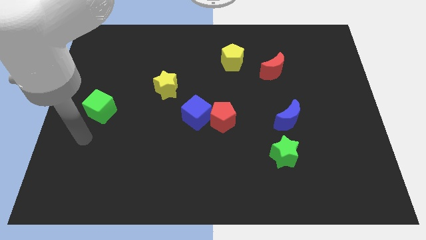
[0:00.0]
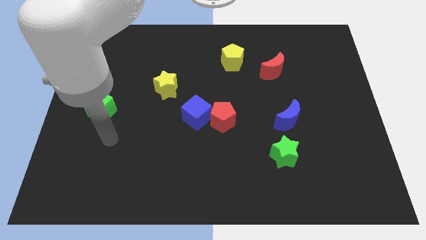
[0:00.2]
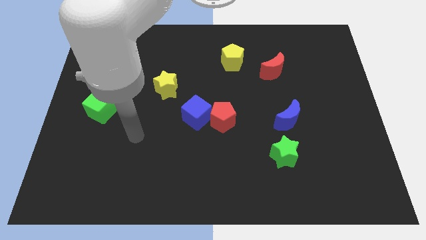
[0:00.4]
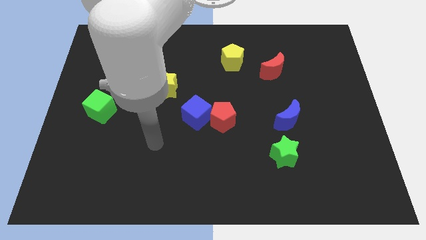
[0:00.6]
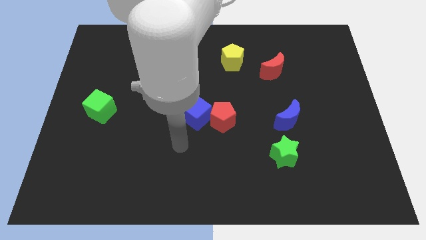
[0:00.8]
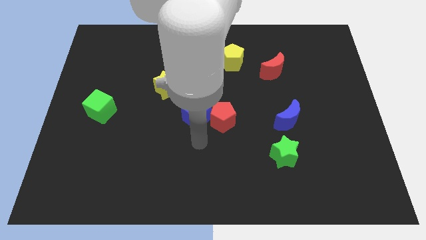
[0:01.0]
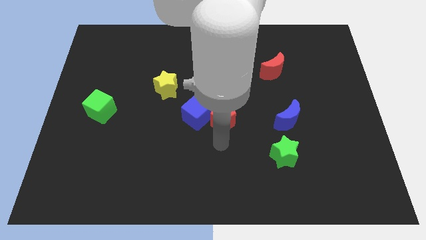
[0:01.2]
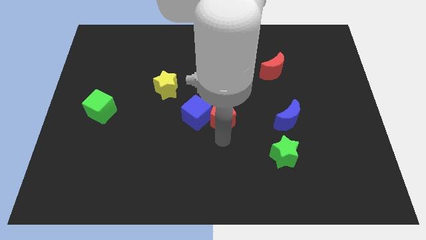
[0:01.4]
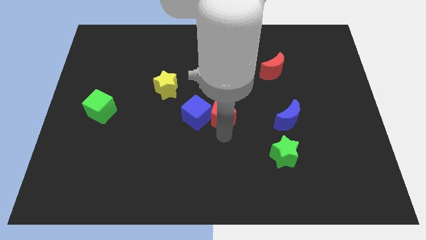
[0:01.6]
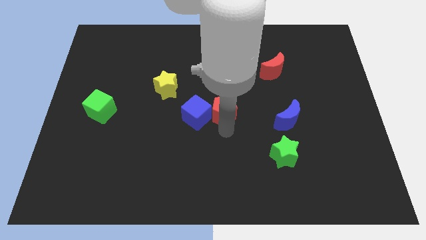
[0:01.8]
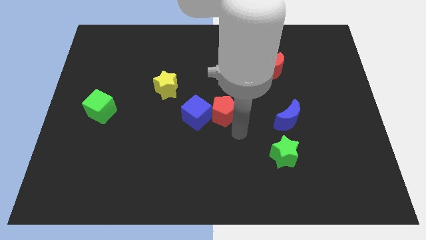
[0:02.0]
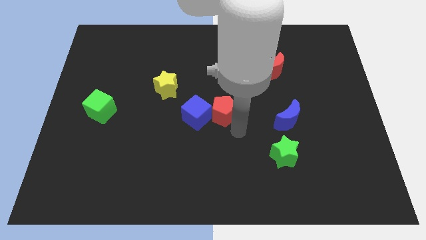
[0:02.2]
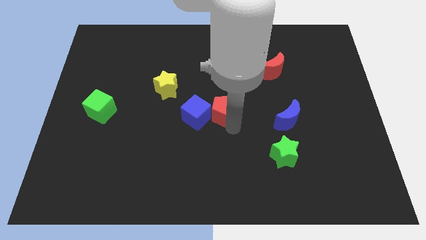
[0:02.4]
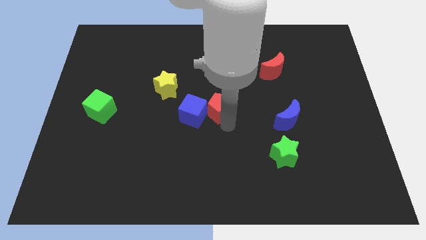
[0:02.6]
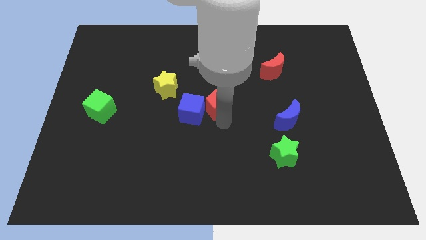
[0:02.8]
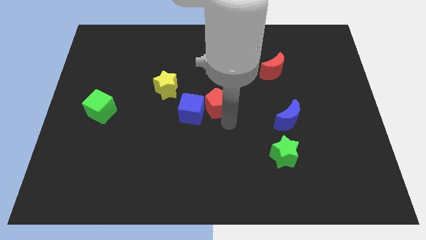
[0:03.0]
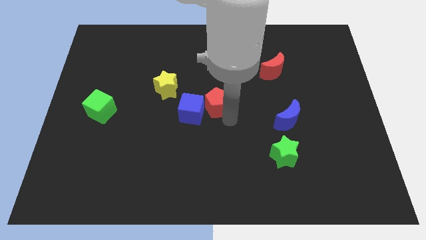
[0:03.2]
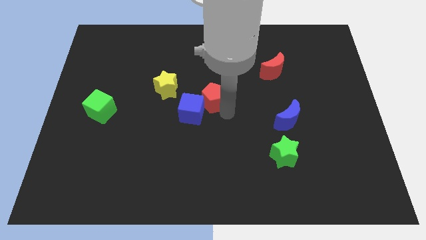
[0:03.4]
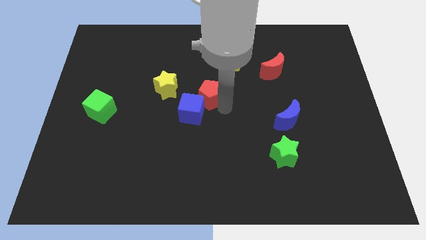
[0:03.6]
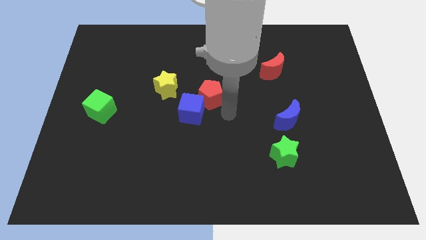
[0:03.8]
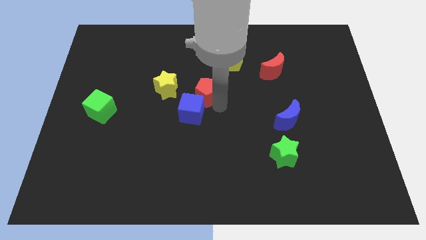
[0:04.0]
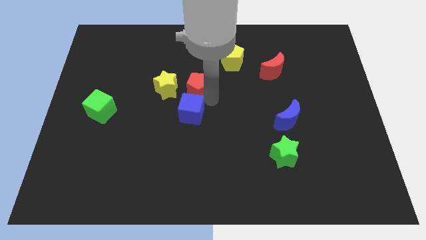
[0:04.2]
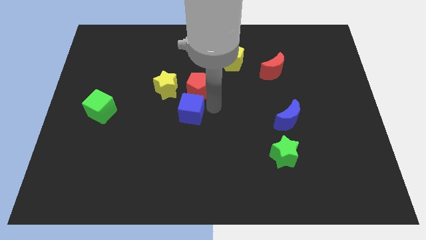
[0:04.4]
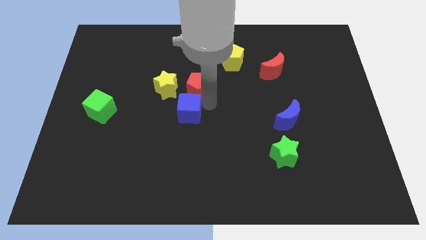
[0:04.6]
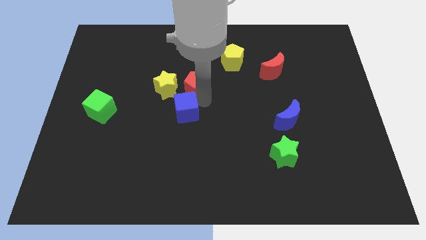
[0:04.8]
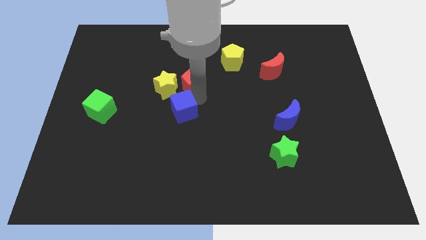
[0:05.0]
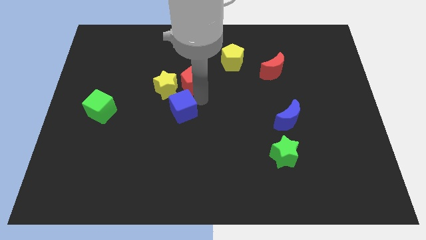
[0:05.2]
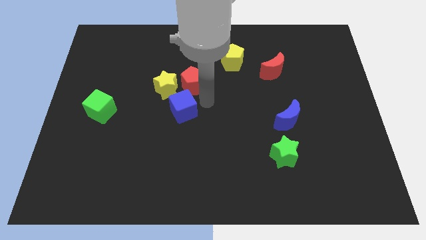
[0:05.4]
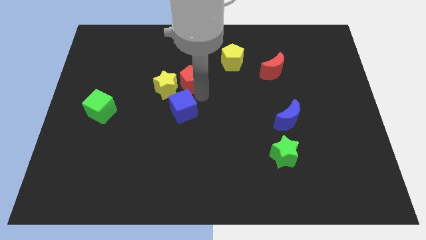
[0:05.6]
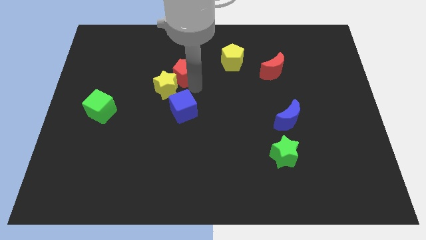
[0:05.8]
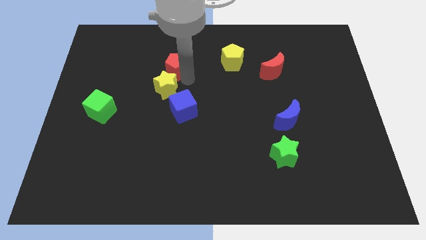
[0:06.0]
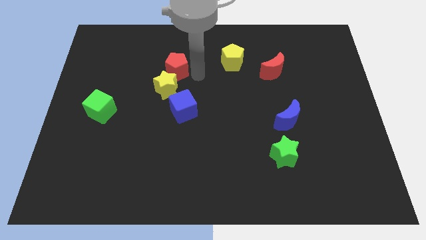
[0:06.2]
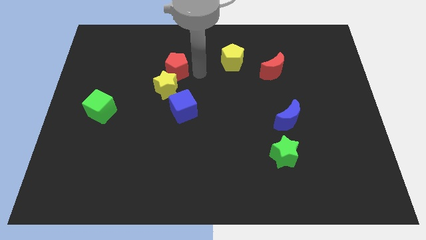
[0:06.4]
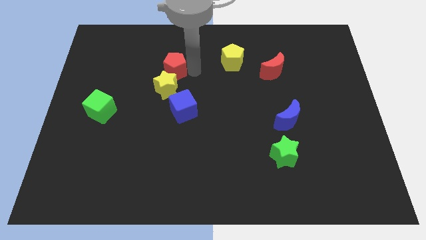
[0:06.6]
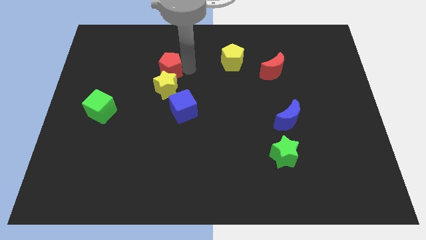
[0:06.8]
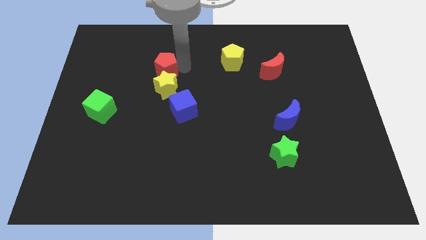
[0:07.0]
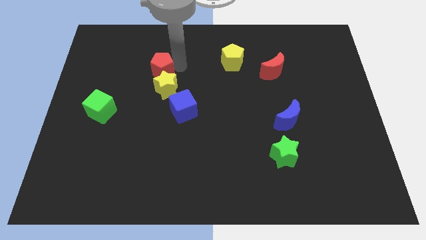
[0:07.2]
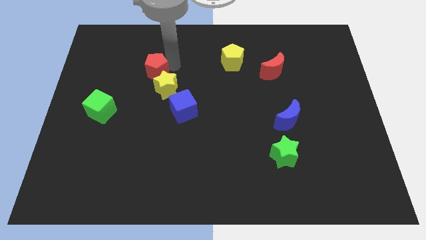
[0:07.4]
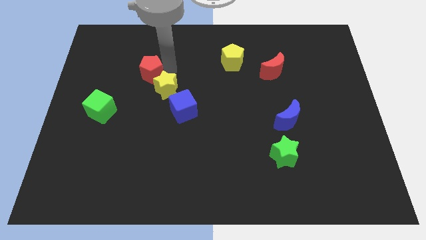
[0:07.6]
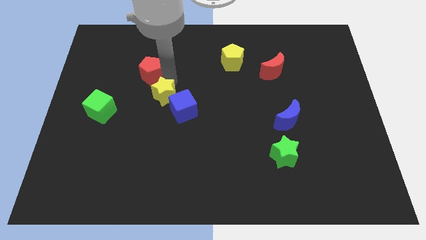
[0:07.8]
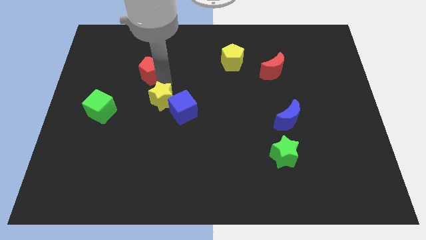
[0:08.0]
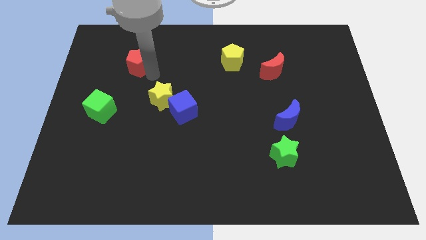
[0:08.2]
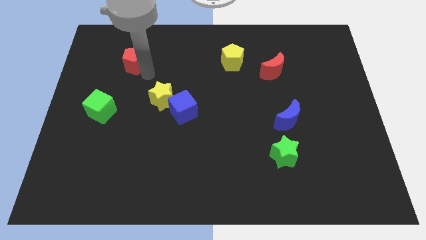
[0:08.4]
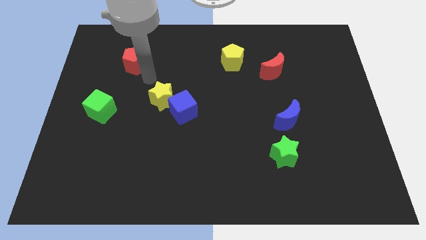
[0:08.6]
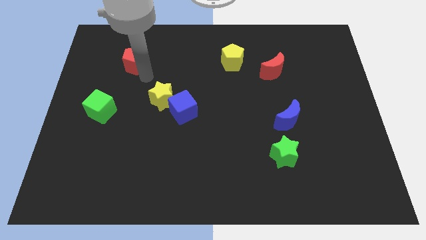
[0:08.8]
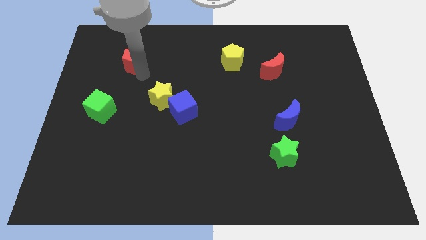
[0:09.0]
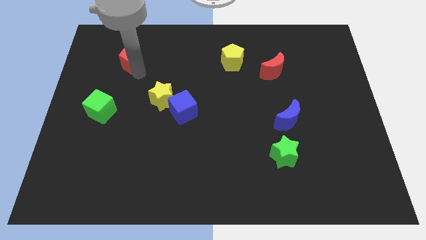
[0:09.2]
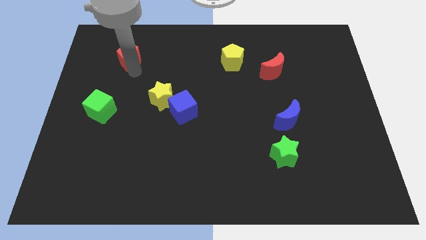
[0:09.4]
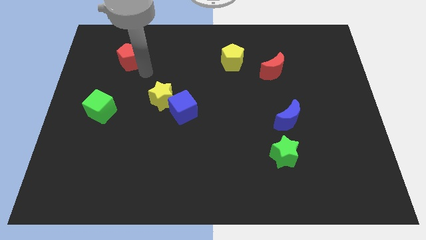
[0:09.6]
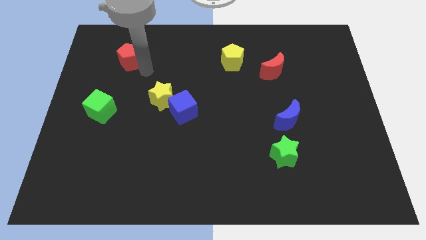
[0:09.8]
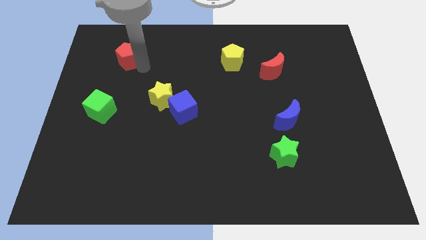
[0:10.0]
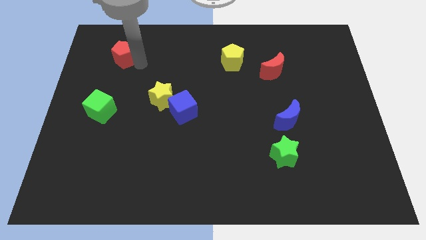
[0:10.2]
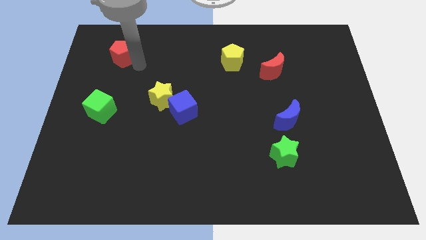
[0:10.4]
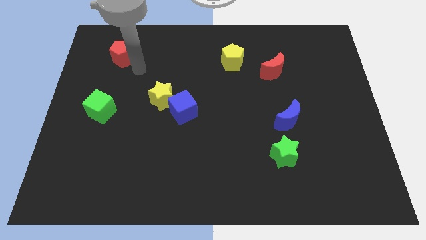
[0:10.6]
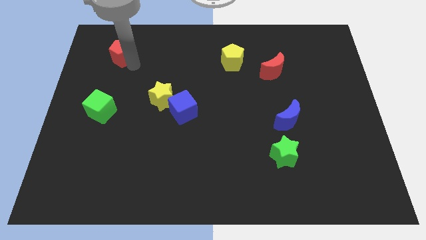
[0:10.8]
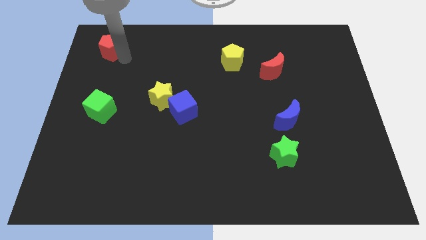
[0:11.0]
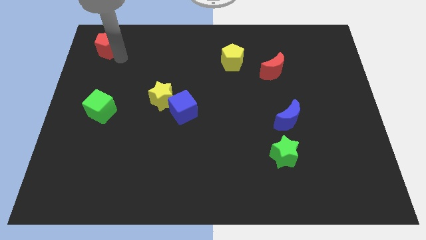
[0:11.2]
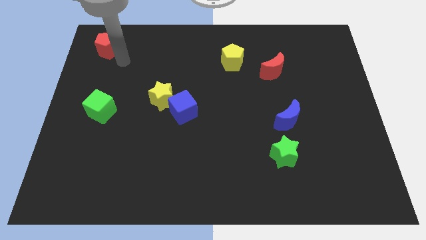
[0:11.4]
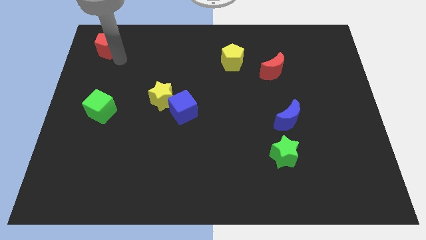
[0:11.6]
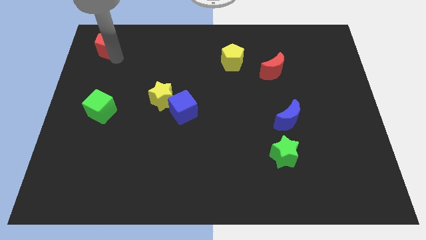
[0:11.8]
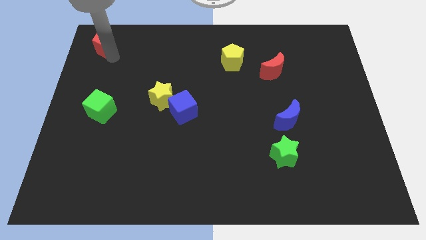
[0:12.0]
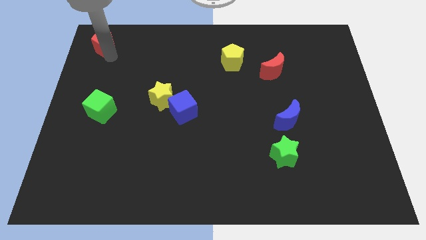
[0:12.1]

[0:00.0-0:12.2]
slide the red pentagon to the top left
